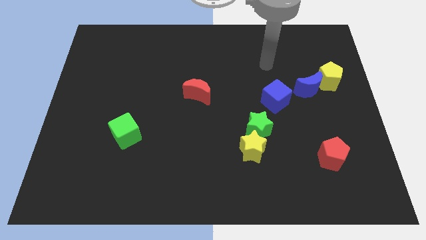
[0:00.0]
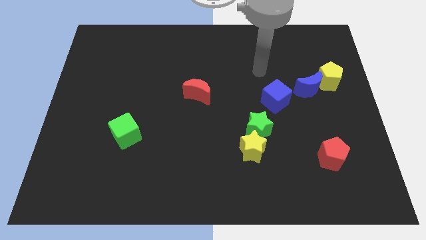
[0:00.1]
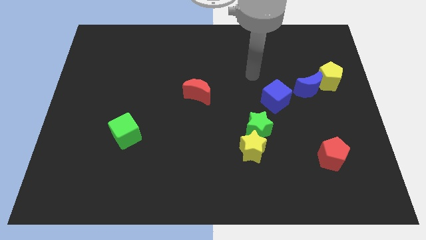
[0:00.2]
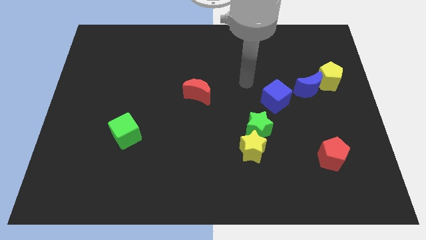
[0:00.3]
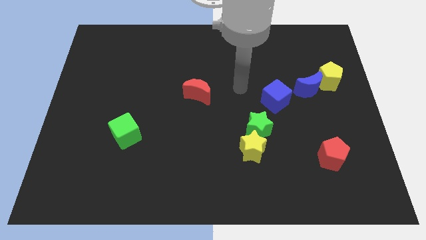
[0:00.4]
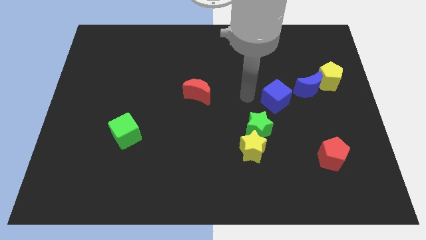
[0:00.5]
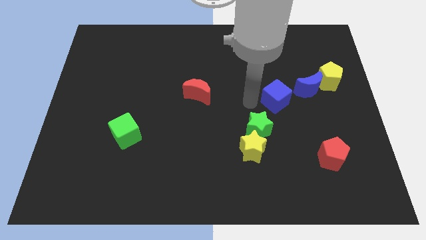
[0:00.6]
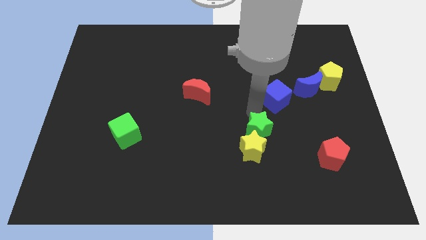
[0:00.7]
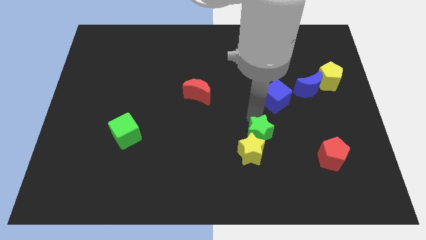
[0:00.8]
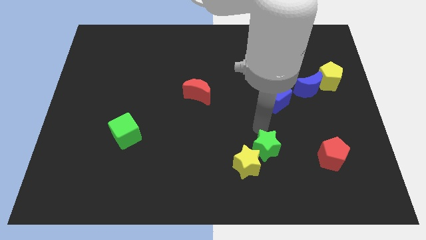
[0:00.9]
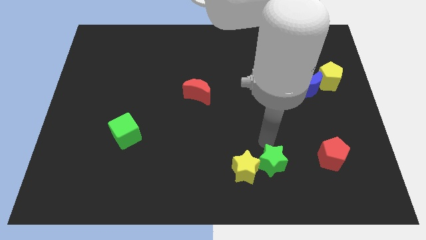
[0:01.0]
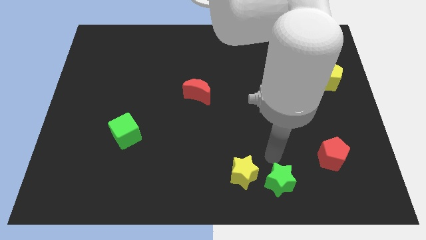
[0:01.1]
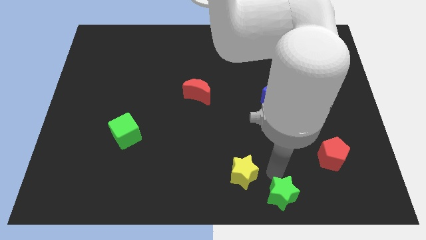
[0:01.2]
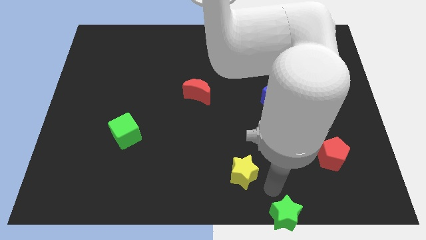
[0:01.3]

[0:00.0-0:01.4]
move the yellow star away from the green star

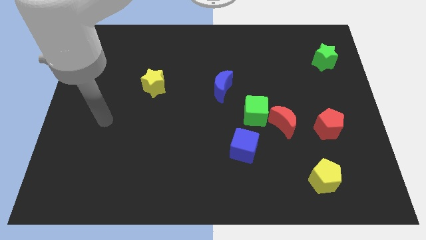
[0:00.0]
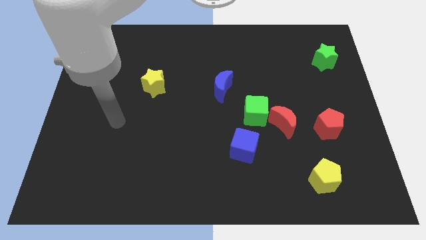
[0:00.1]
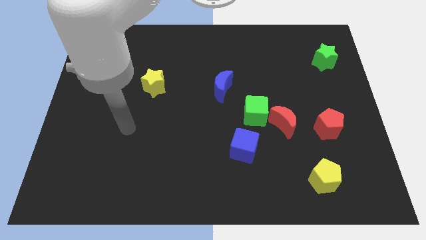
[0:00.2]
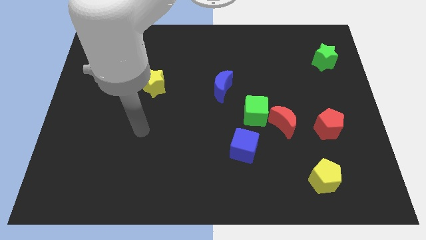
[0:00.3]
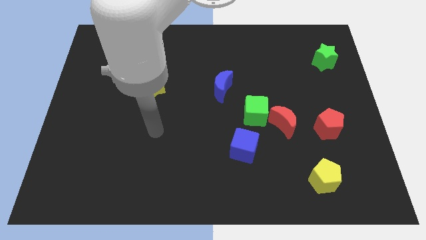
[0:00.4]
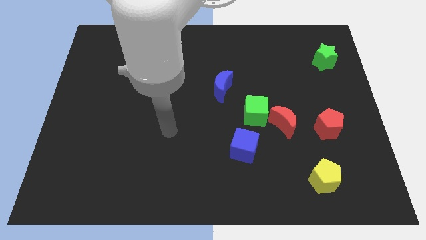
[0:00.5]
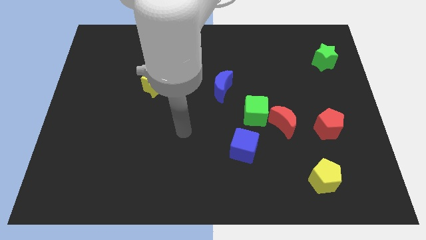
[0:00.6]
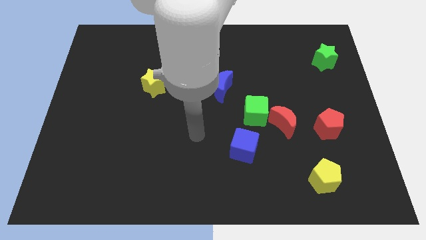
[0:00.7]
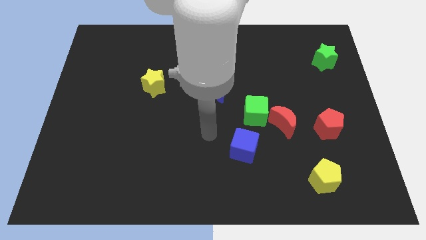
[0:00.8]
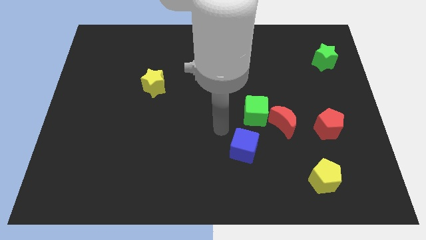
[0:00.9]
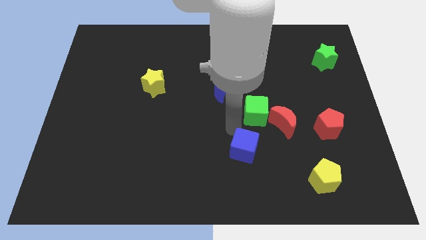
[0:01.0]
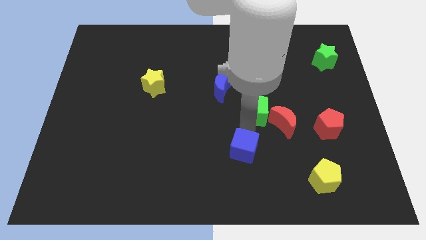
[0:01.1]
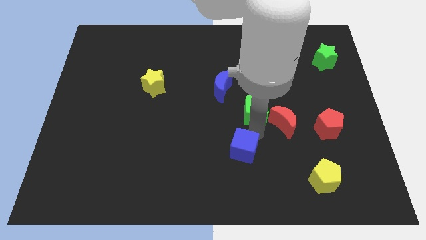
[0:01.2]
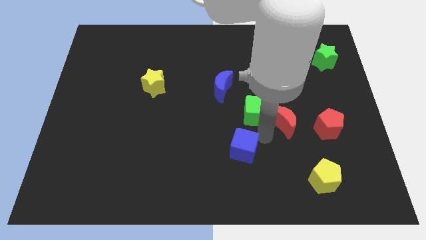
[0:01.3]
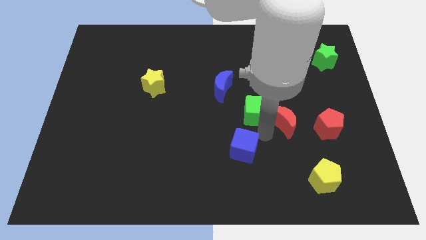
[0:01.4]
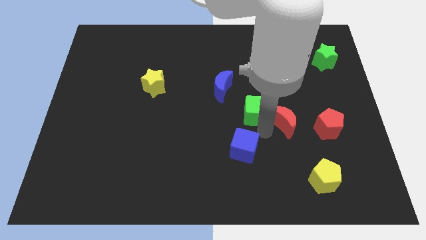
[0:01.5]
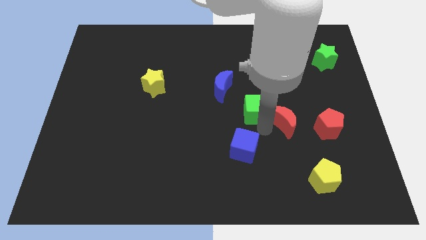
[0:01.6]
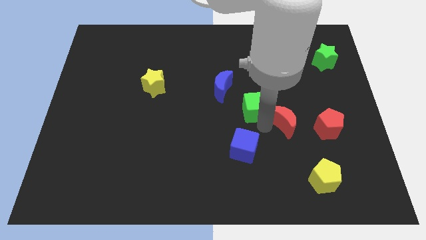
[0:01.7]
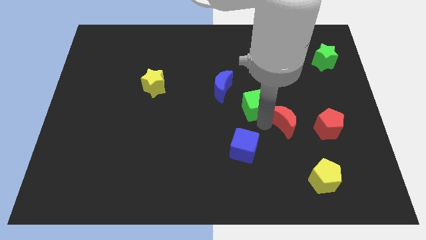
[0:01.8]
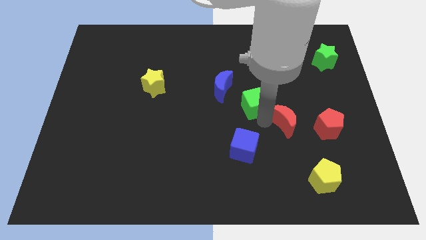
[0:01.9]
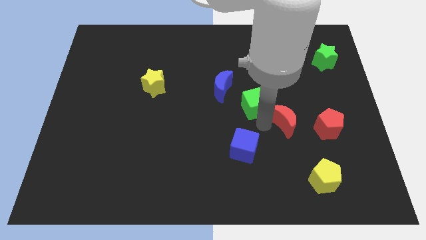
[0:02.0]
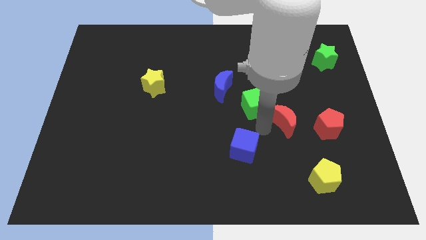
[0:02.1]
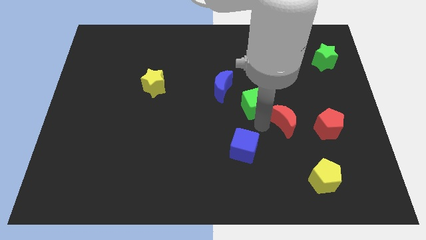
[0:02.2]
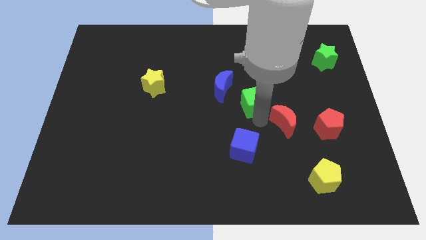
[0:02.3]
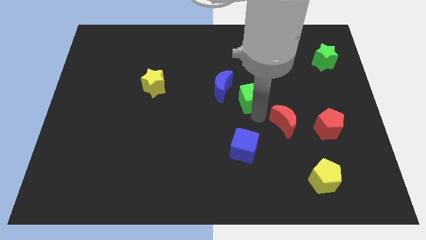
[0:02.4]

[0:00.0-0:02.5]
pull the green cube apart from the red moon and blue cube

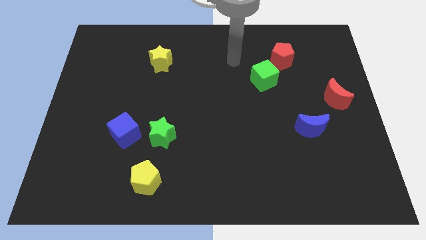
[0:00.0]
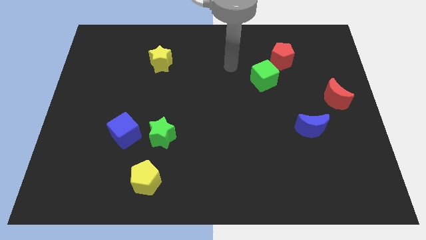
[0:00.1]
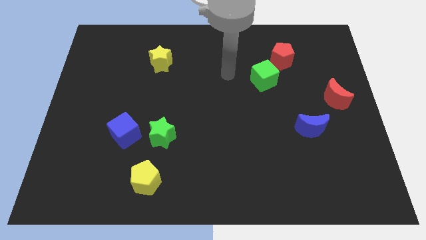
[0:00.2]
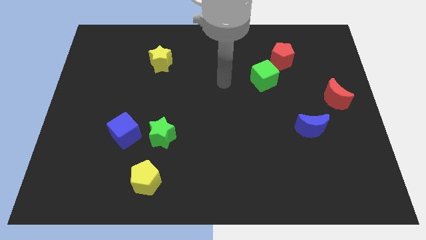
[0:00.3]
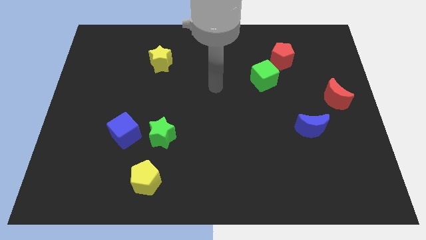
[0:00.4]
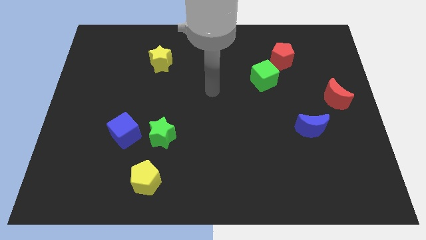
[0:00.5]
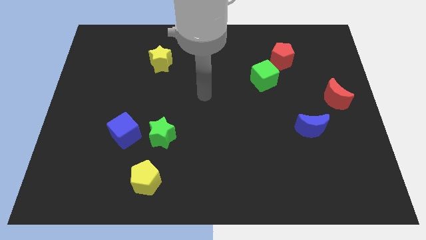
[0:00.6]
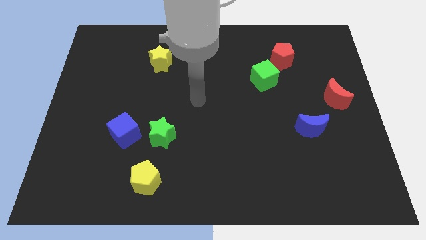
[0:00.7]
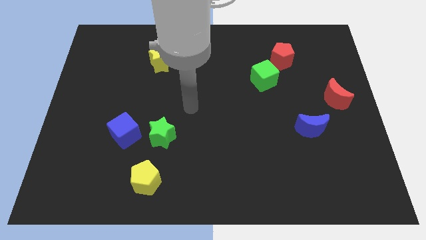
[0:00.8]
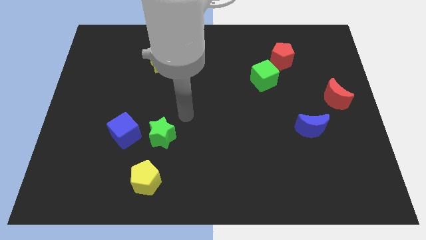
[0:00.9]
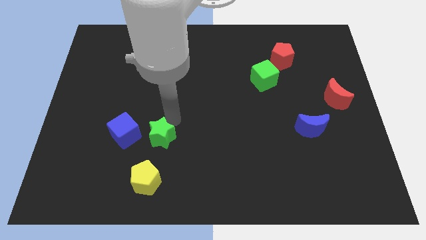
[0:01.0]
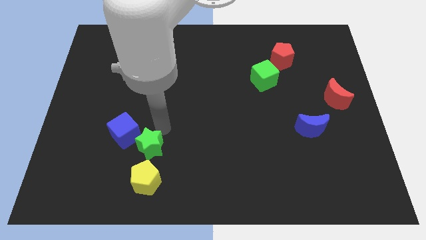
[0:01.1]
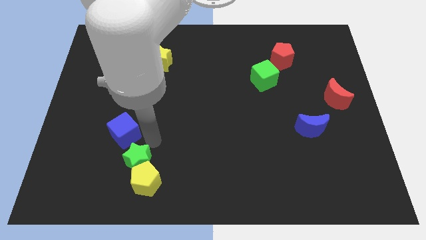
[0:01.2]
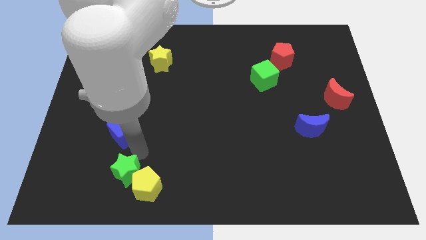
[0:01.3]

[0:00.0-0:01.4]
separate the blue cube from the green star

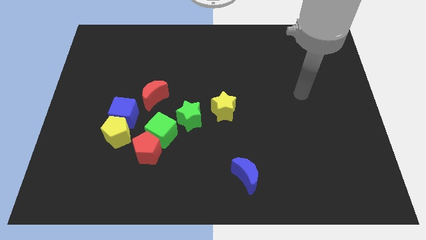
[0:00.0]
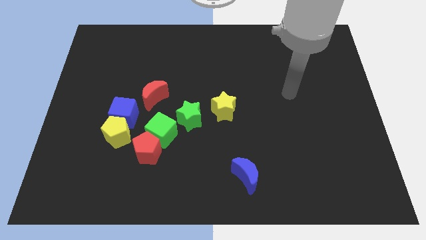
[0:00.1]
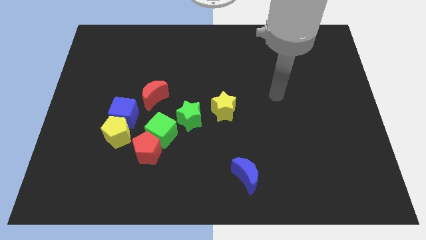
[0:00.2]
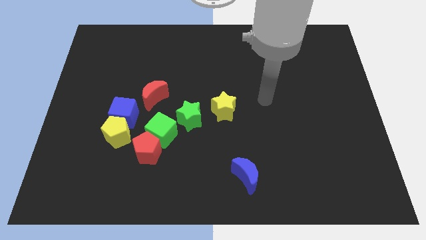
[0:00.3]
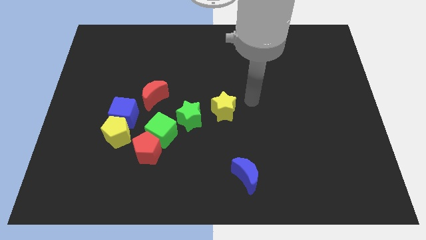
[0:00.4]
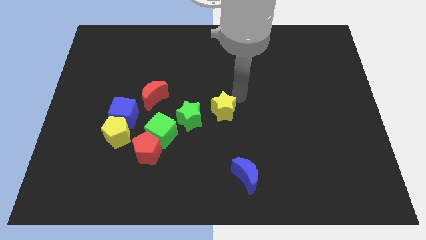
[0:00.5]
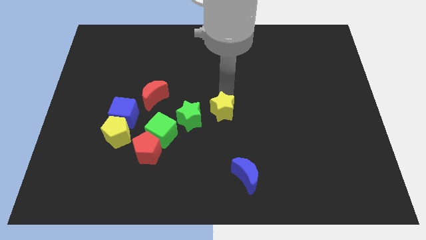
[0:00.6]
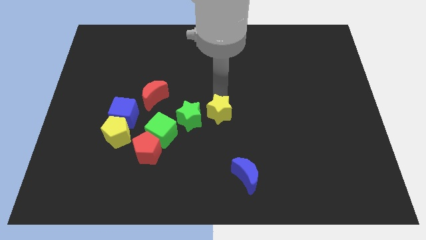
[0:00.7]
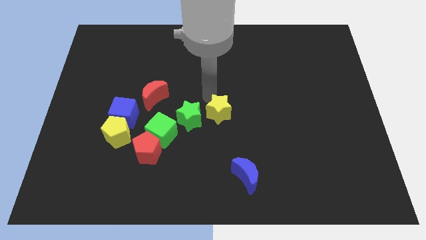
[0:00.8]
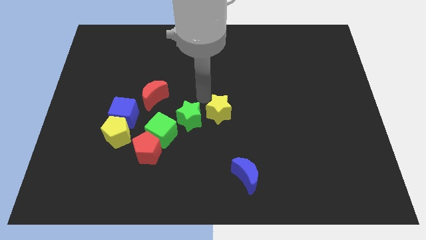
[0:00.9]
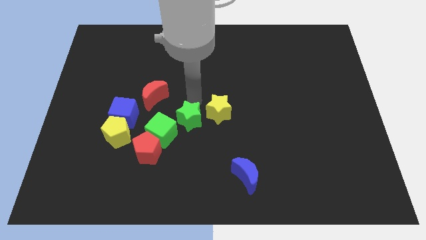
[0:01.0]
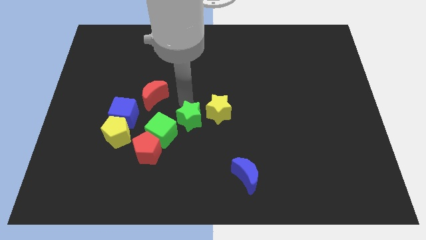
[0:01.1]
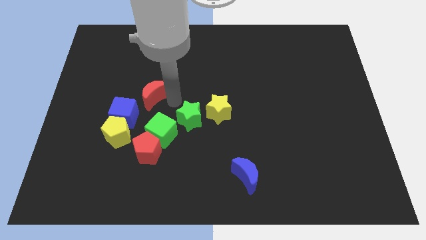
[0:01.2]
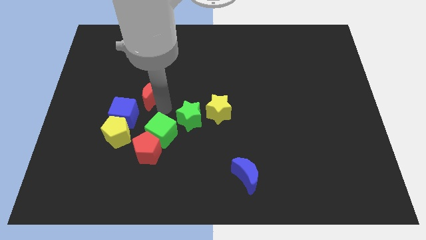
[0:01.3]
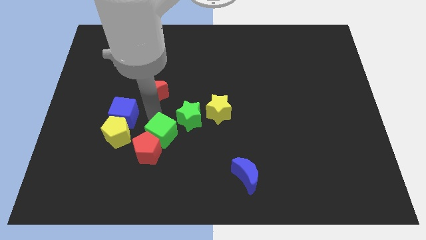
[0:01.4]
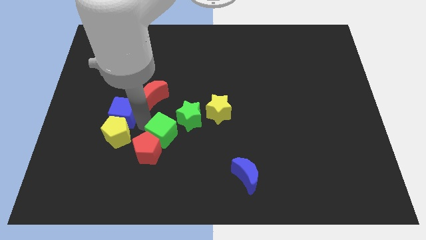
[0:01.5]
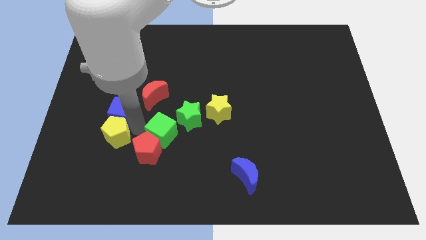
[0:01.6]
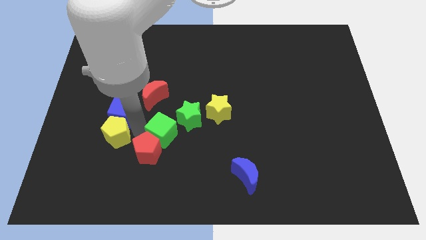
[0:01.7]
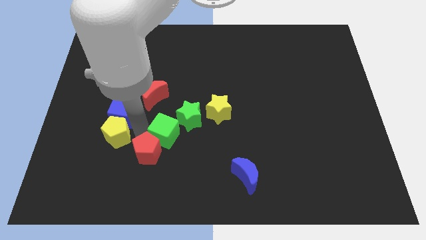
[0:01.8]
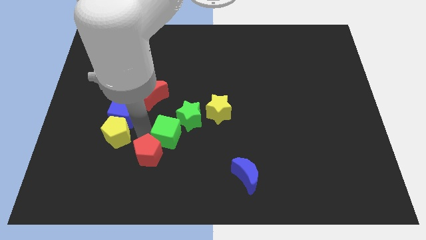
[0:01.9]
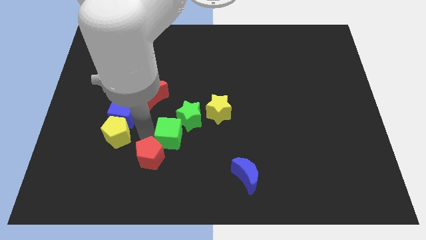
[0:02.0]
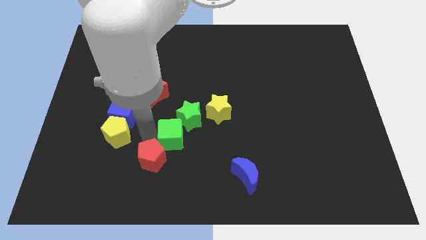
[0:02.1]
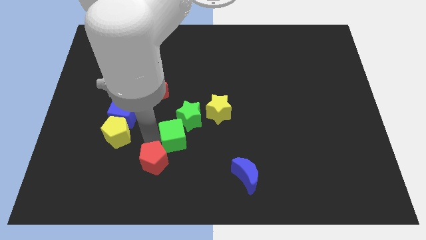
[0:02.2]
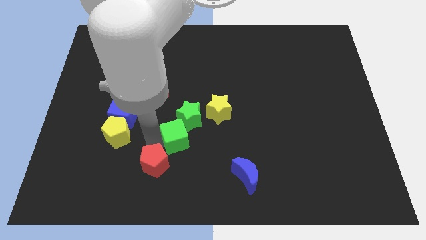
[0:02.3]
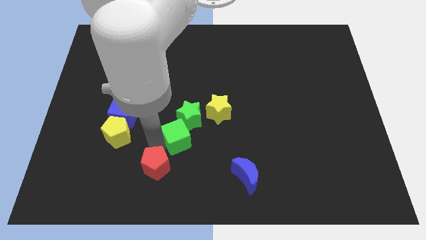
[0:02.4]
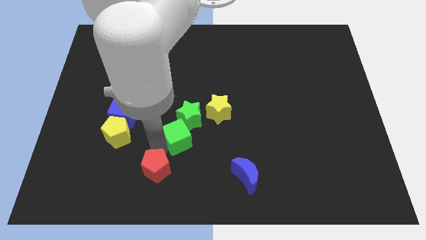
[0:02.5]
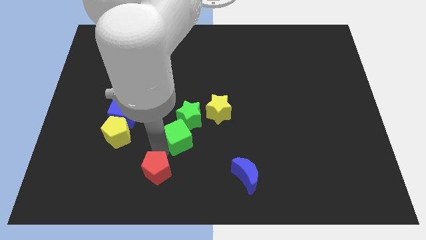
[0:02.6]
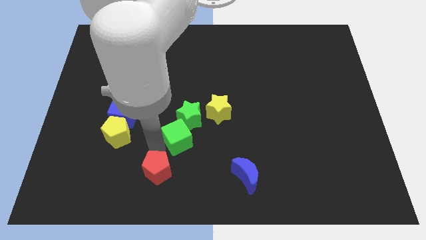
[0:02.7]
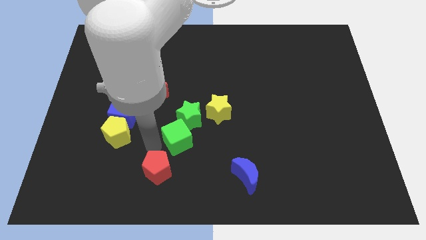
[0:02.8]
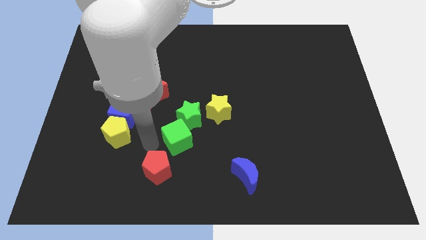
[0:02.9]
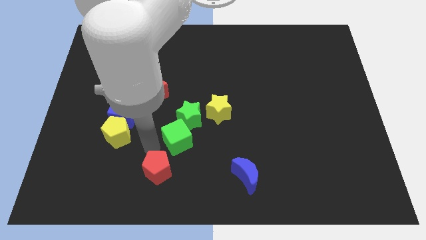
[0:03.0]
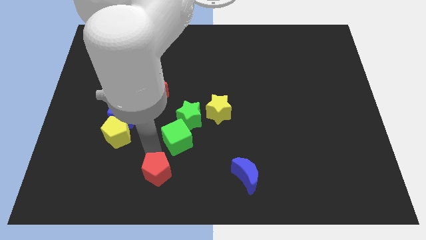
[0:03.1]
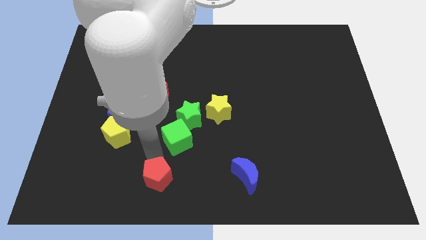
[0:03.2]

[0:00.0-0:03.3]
pull the red pentagon apart from the green cube and yellow pentagon

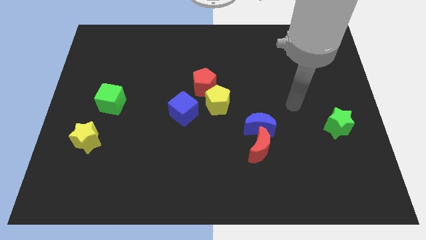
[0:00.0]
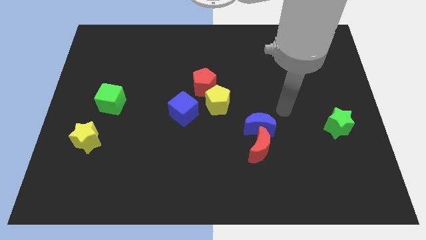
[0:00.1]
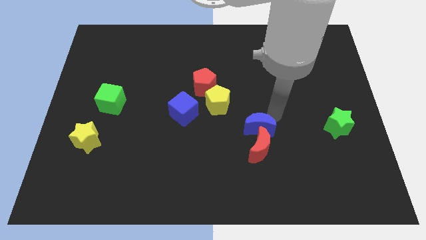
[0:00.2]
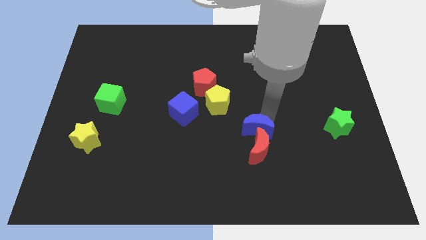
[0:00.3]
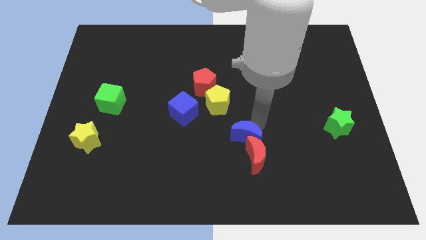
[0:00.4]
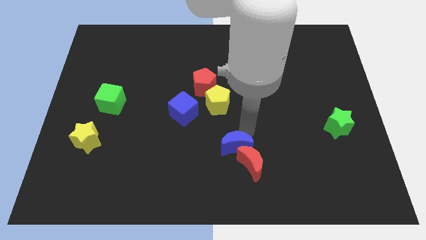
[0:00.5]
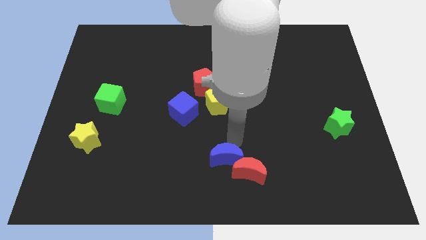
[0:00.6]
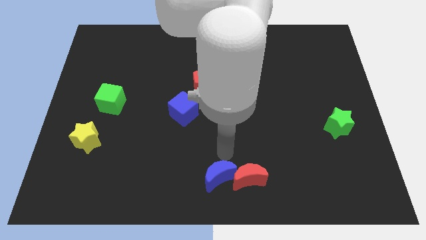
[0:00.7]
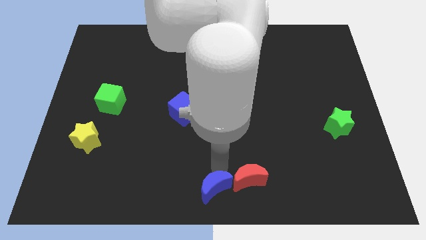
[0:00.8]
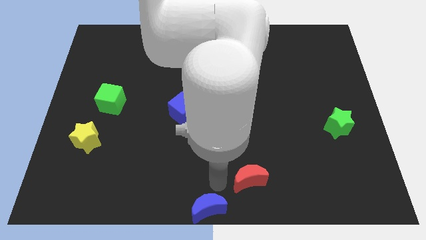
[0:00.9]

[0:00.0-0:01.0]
pull the red moon apart from the blue moon
